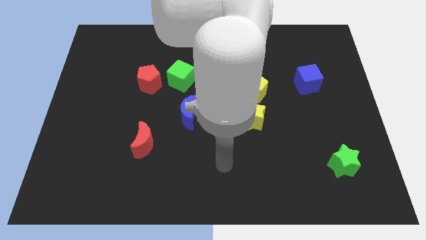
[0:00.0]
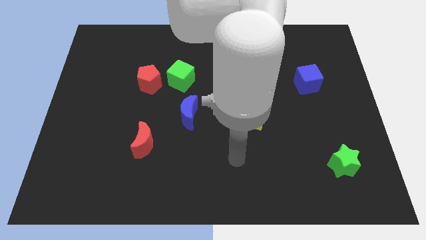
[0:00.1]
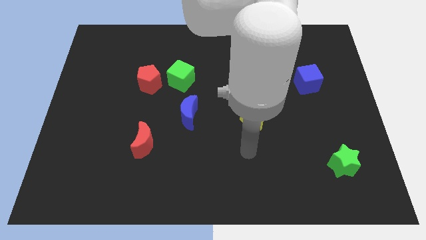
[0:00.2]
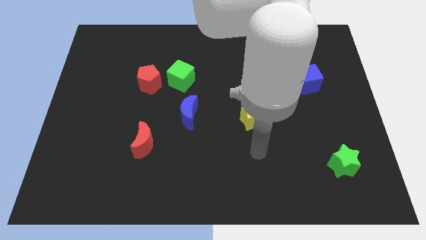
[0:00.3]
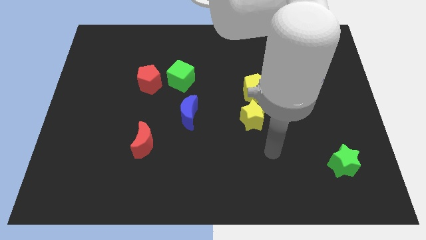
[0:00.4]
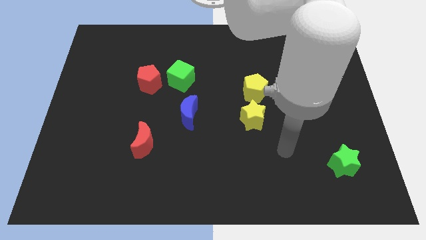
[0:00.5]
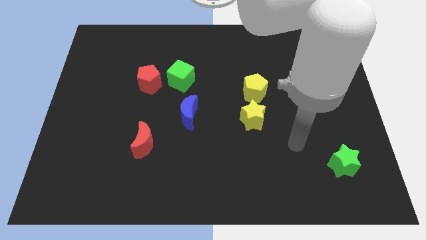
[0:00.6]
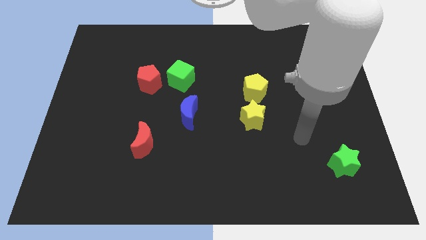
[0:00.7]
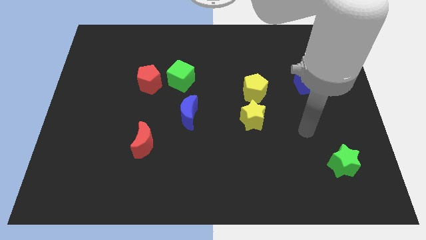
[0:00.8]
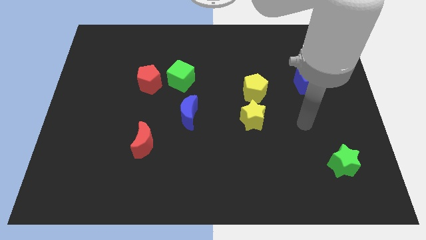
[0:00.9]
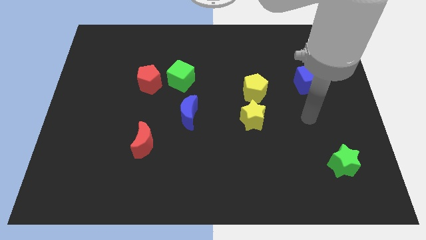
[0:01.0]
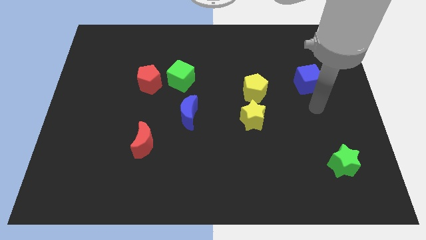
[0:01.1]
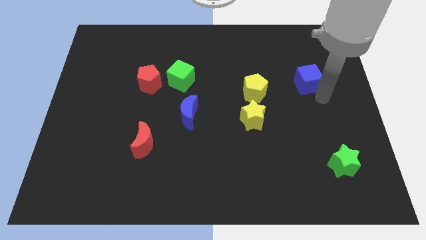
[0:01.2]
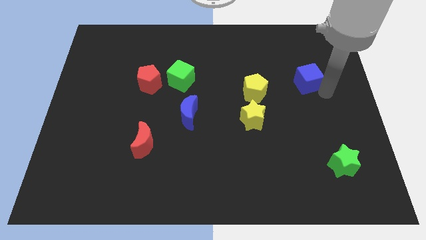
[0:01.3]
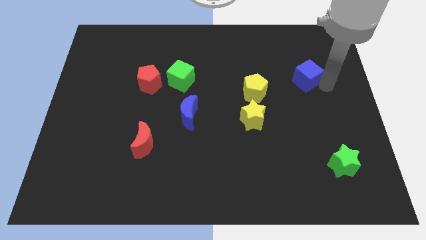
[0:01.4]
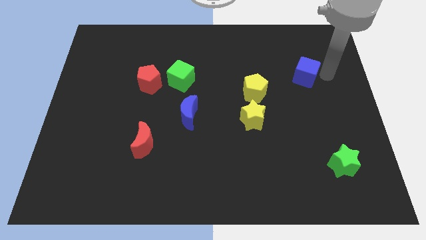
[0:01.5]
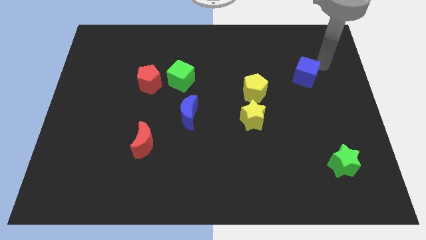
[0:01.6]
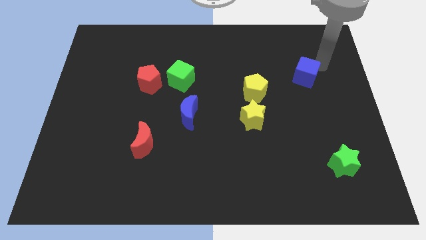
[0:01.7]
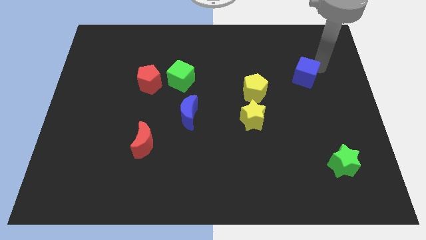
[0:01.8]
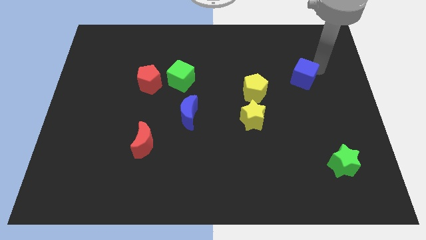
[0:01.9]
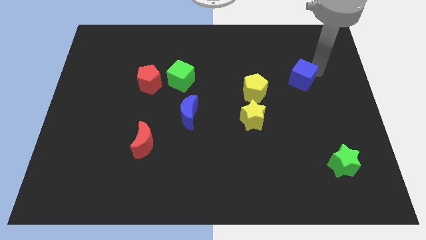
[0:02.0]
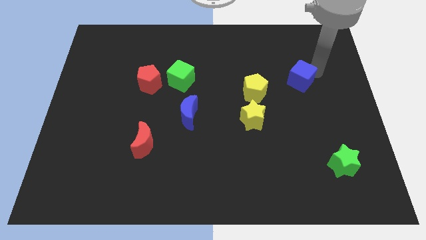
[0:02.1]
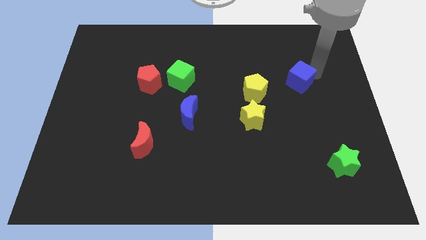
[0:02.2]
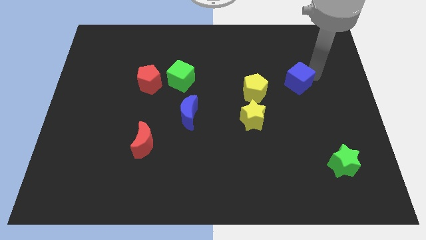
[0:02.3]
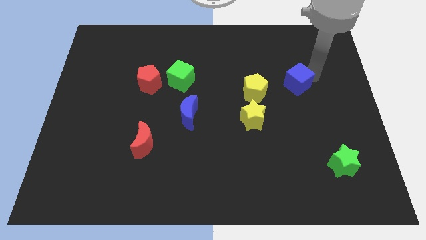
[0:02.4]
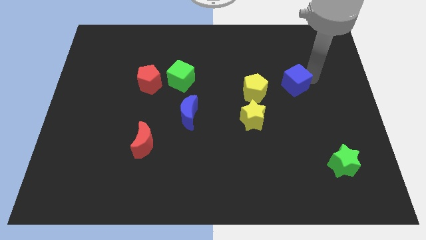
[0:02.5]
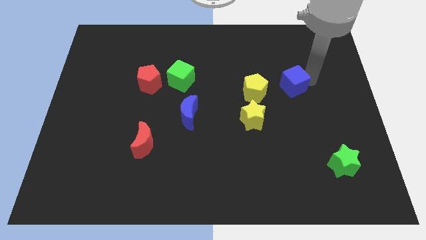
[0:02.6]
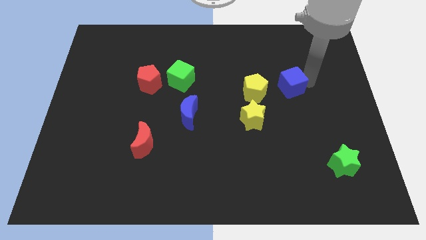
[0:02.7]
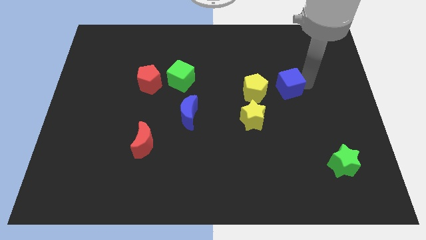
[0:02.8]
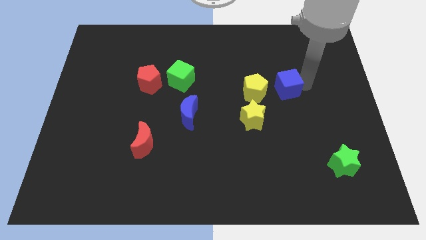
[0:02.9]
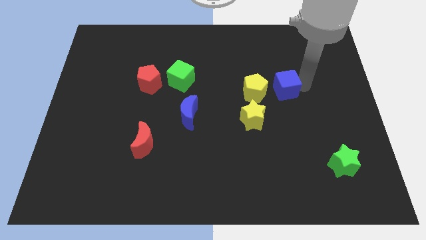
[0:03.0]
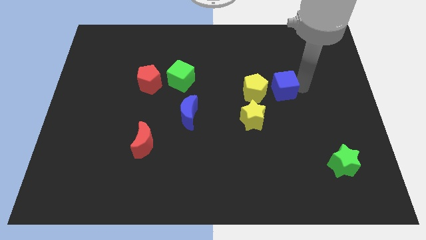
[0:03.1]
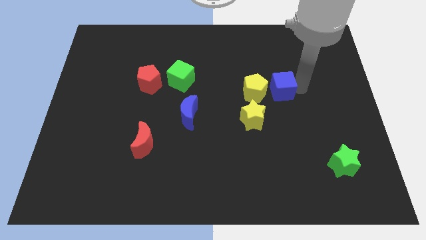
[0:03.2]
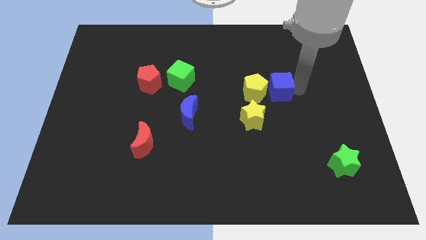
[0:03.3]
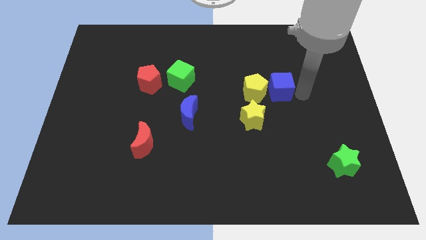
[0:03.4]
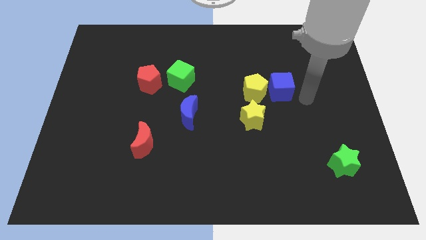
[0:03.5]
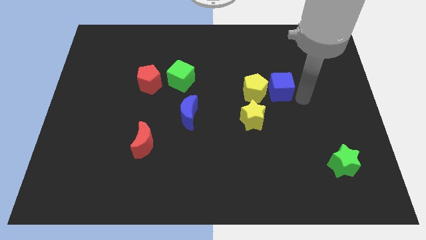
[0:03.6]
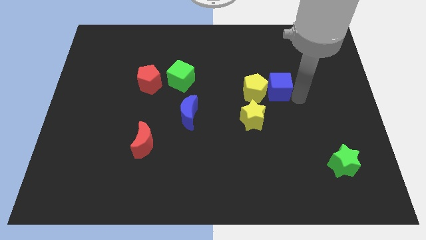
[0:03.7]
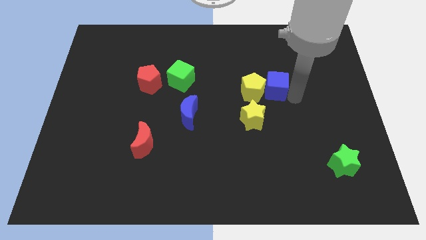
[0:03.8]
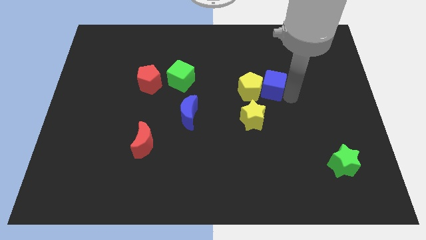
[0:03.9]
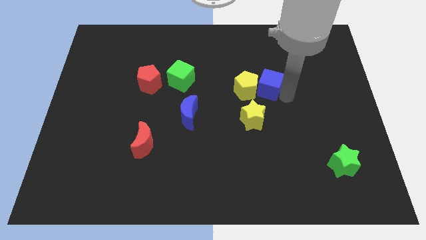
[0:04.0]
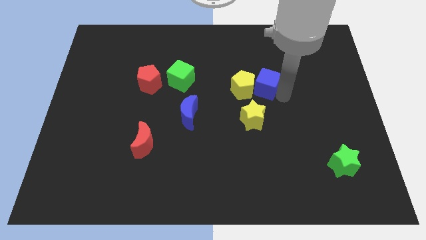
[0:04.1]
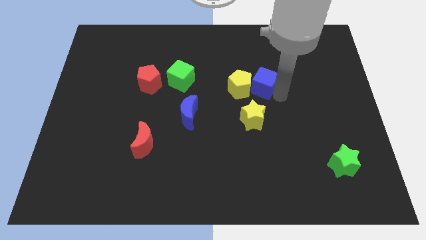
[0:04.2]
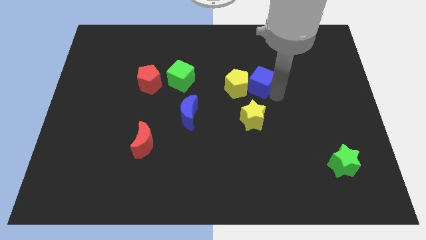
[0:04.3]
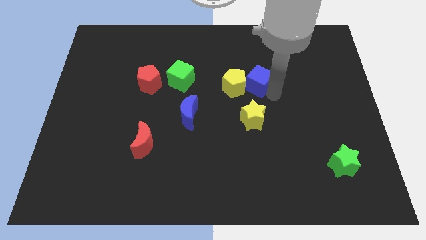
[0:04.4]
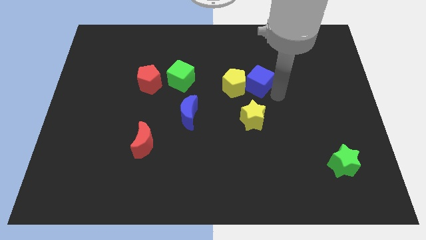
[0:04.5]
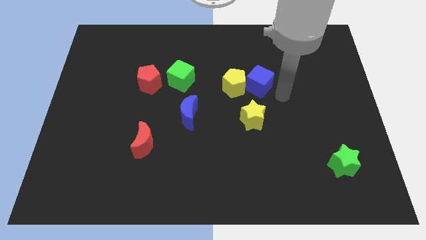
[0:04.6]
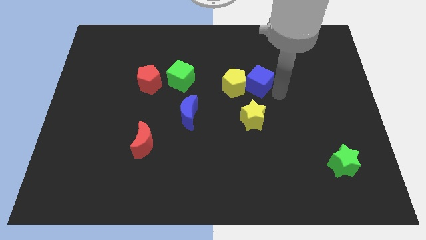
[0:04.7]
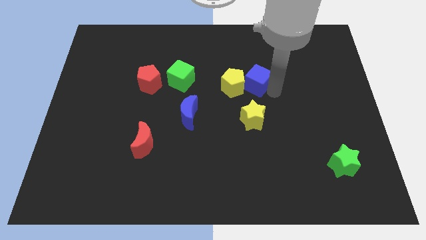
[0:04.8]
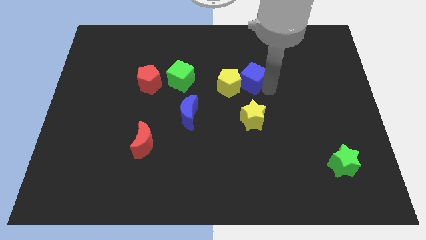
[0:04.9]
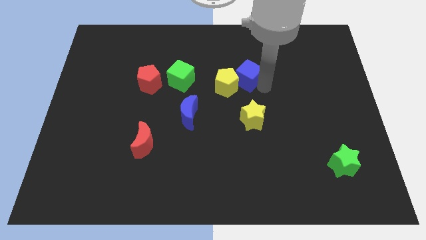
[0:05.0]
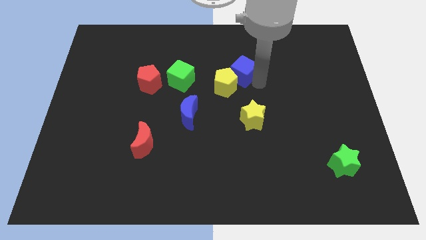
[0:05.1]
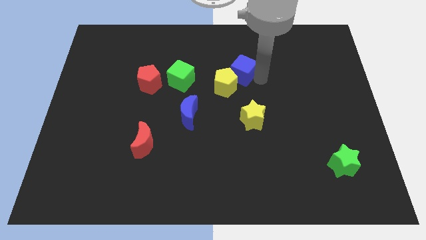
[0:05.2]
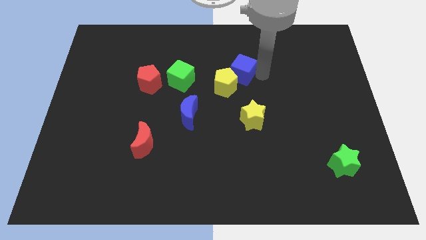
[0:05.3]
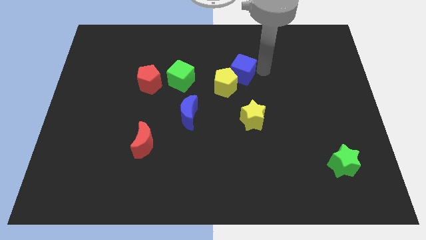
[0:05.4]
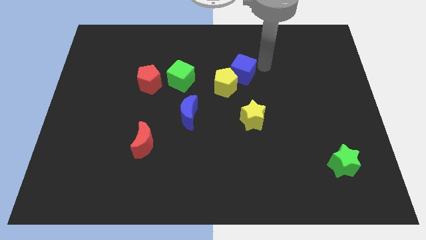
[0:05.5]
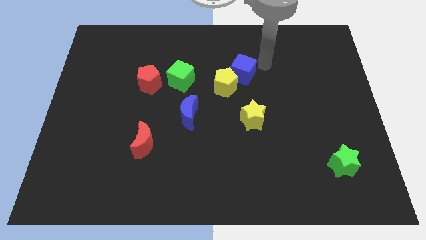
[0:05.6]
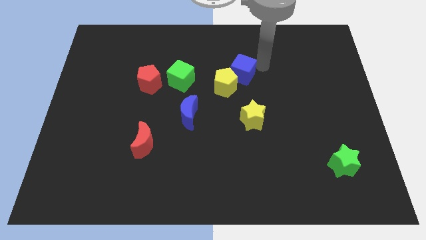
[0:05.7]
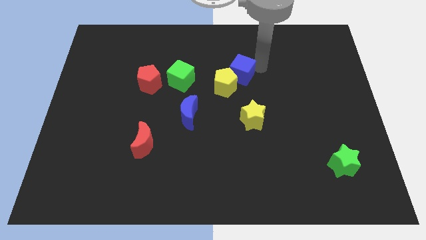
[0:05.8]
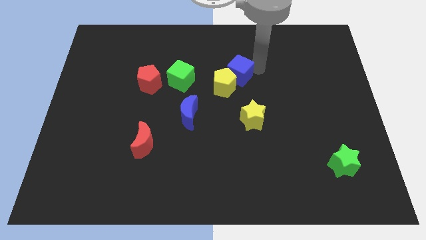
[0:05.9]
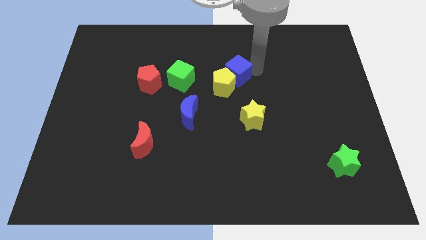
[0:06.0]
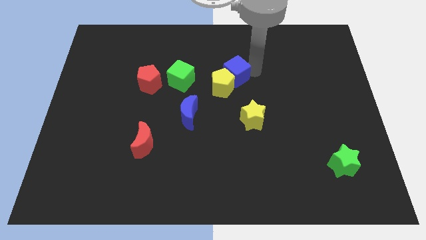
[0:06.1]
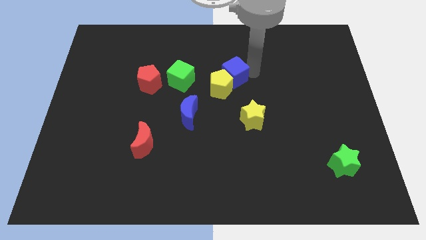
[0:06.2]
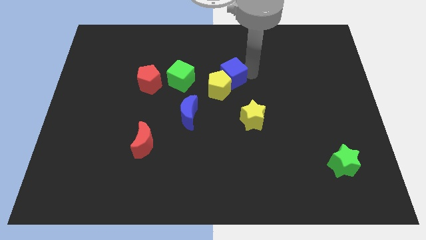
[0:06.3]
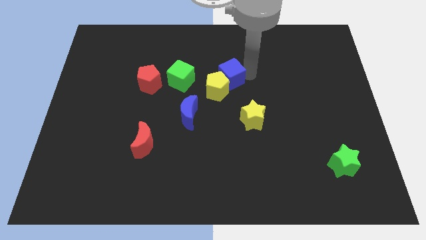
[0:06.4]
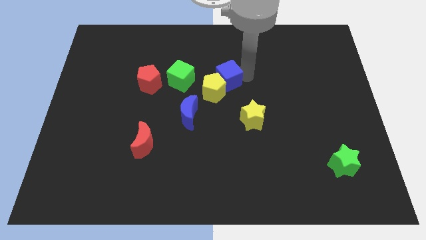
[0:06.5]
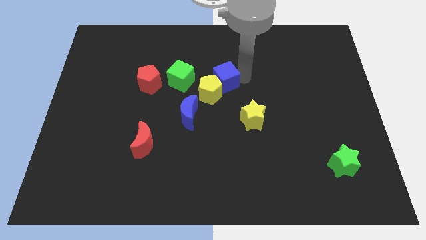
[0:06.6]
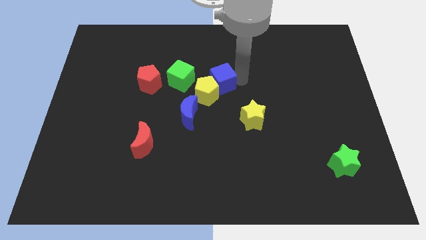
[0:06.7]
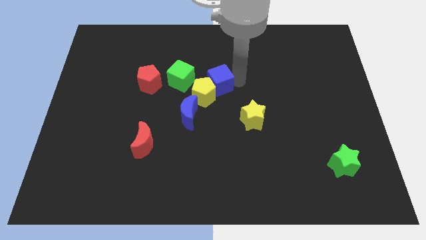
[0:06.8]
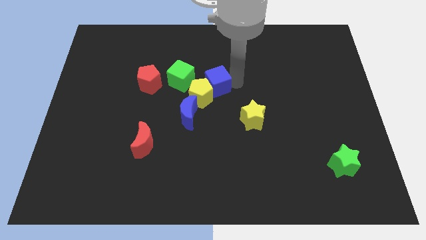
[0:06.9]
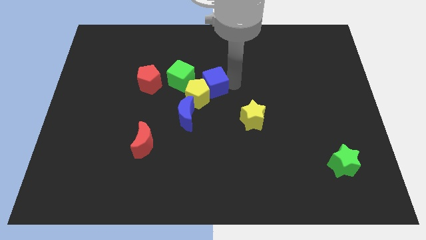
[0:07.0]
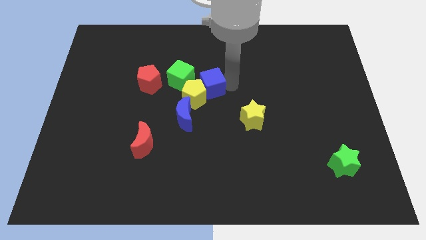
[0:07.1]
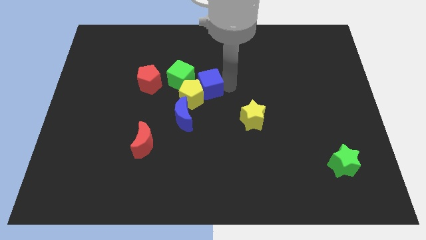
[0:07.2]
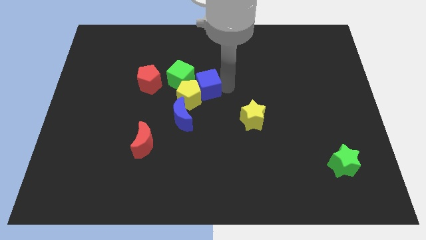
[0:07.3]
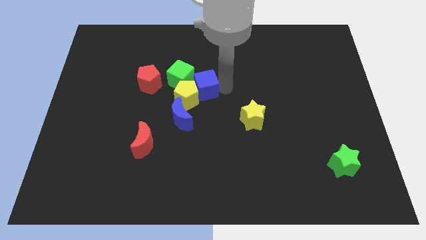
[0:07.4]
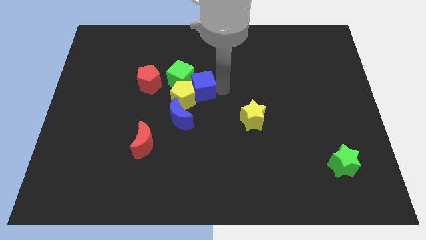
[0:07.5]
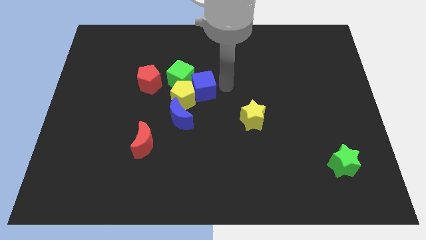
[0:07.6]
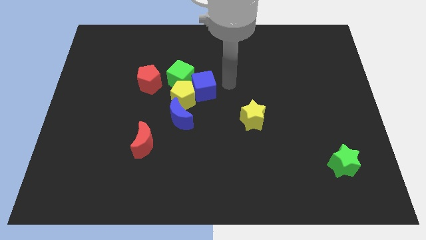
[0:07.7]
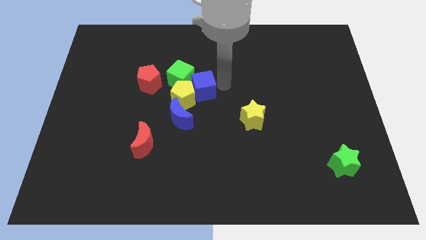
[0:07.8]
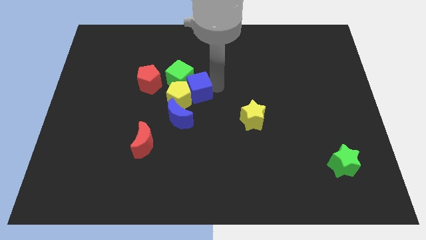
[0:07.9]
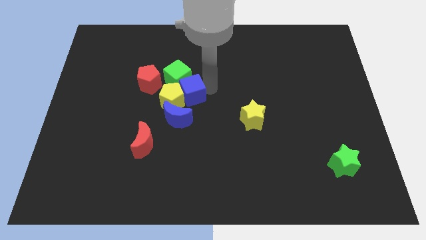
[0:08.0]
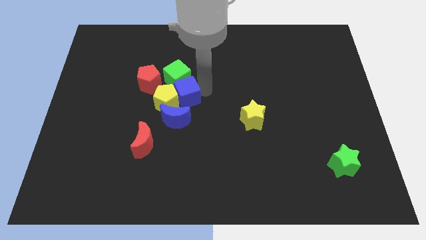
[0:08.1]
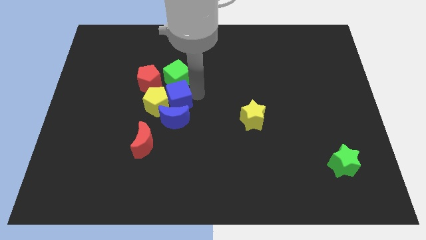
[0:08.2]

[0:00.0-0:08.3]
push the blue cube to the bottom left side of the green cube
